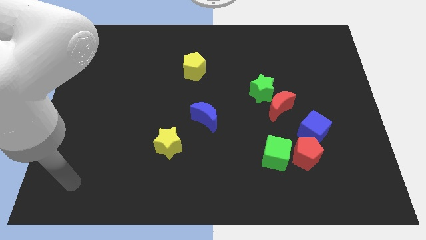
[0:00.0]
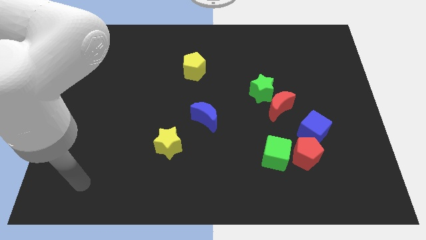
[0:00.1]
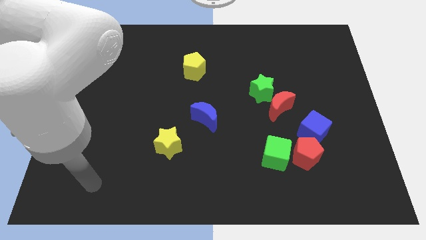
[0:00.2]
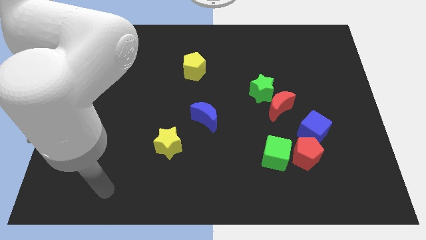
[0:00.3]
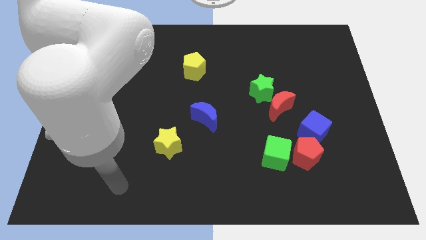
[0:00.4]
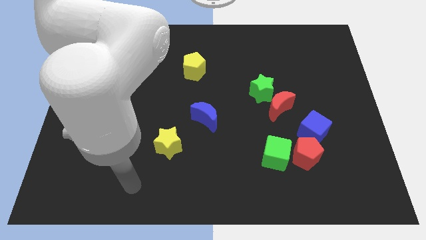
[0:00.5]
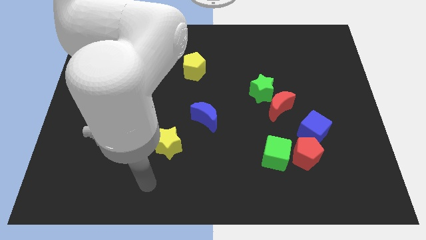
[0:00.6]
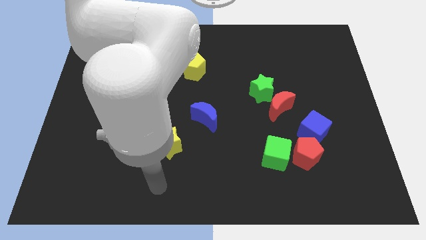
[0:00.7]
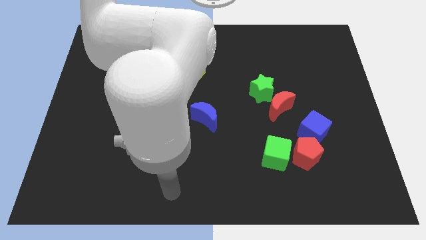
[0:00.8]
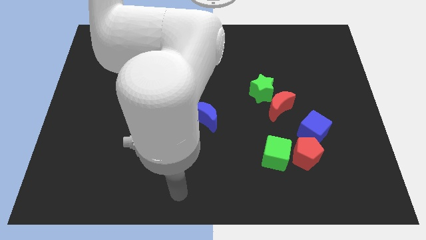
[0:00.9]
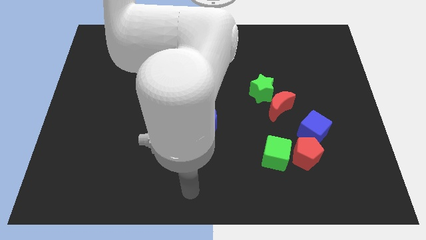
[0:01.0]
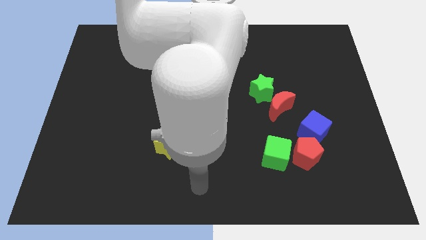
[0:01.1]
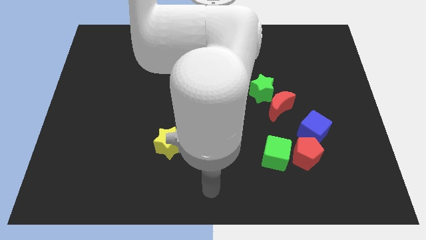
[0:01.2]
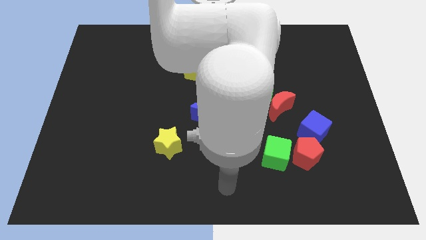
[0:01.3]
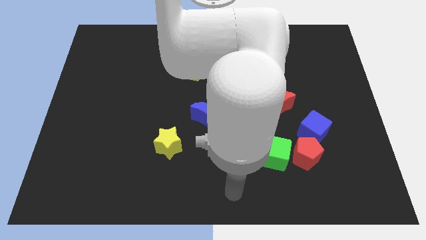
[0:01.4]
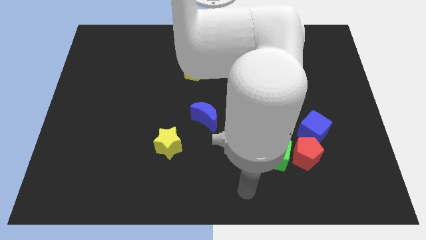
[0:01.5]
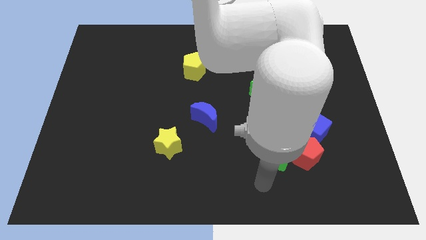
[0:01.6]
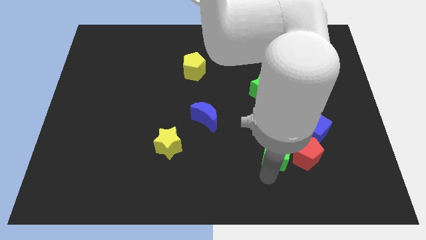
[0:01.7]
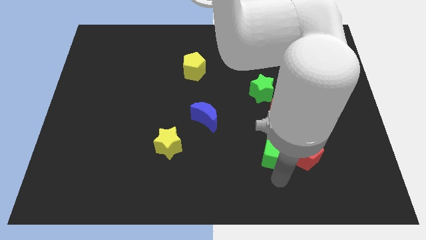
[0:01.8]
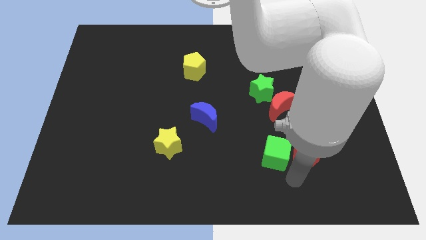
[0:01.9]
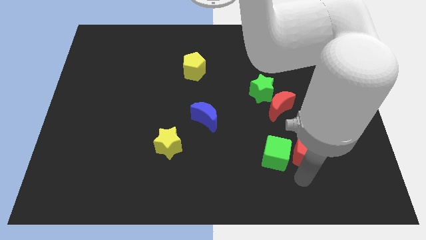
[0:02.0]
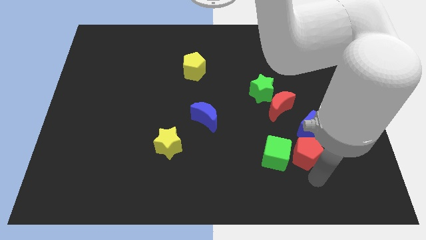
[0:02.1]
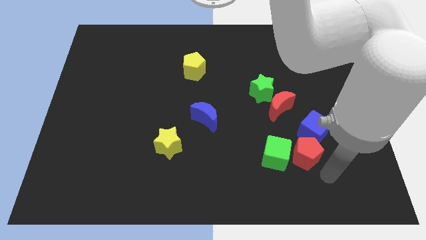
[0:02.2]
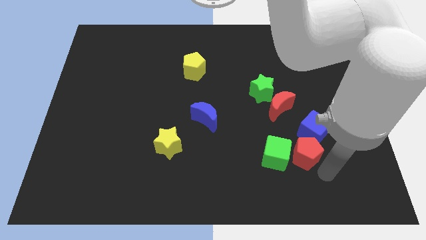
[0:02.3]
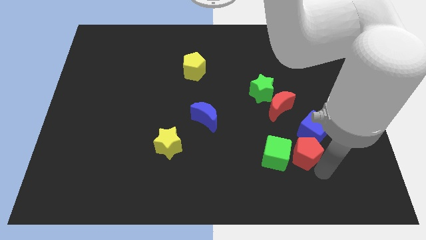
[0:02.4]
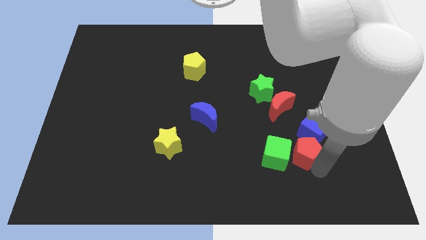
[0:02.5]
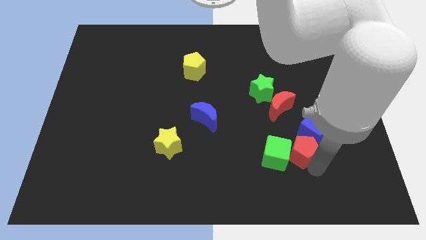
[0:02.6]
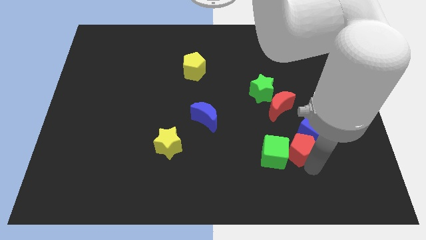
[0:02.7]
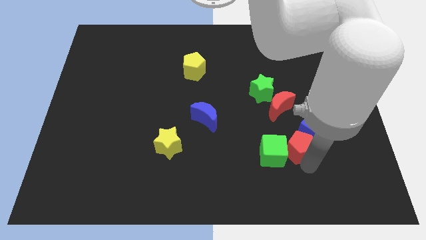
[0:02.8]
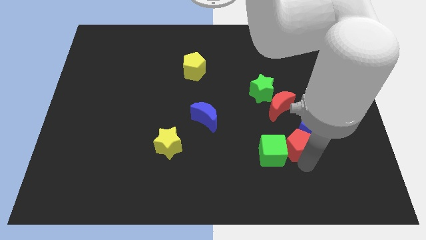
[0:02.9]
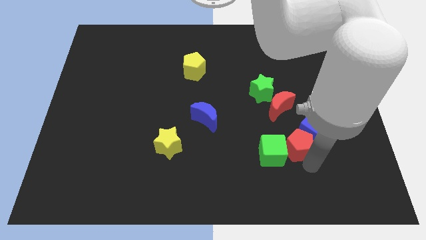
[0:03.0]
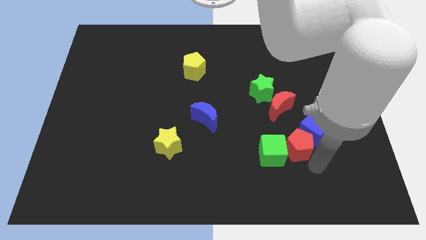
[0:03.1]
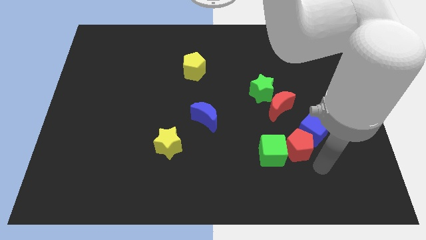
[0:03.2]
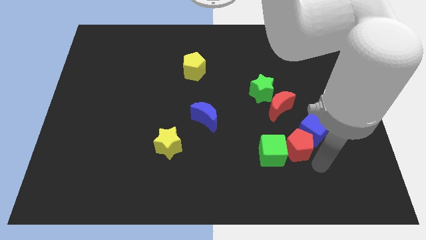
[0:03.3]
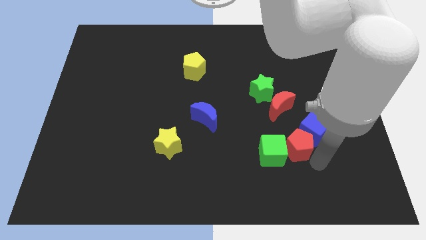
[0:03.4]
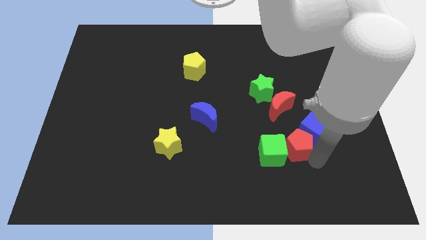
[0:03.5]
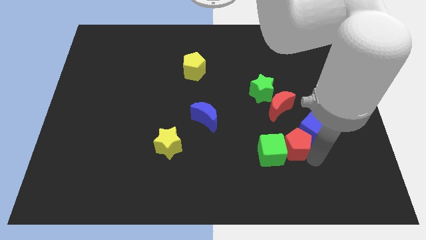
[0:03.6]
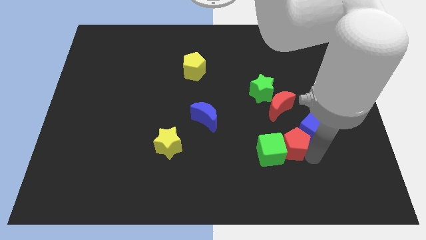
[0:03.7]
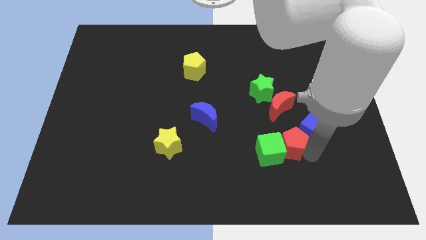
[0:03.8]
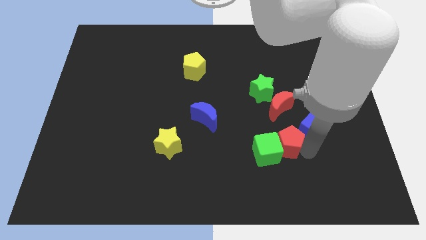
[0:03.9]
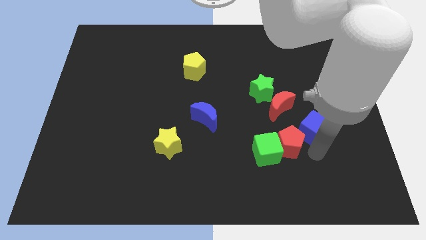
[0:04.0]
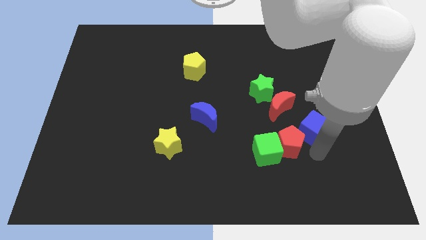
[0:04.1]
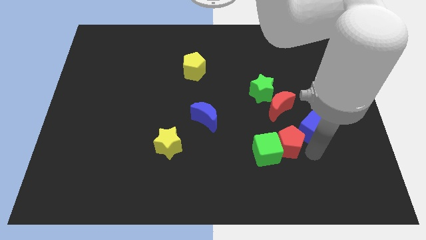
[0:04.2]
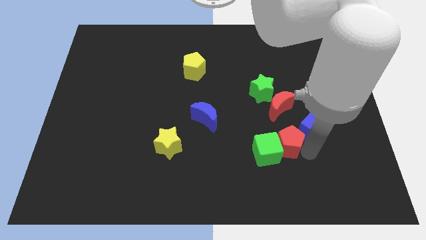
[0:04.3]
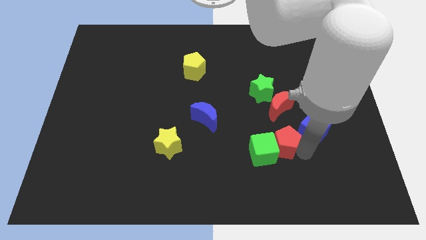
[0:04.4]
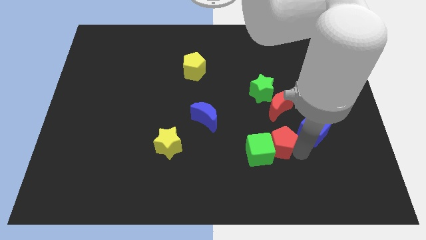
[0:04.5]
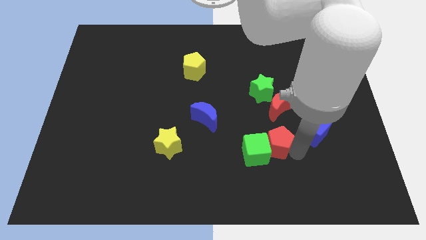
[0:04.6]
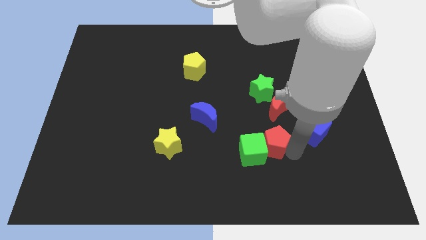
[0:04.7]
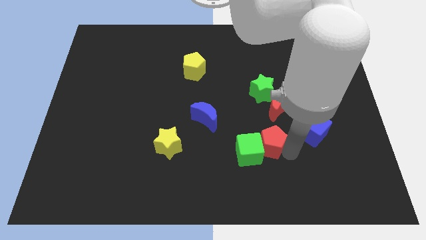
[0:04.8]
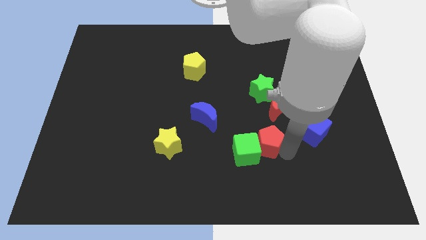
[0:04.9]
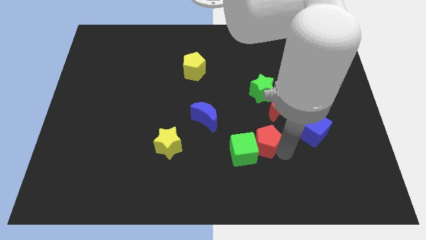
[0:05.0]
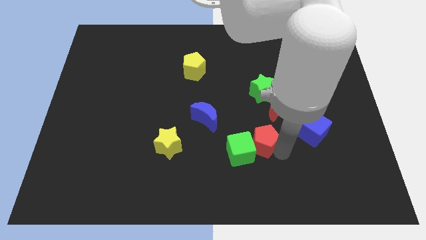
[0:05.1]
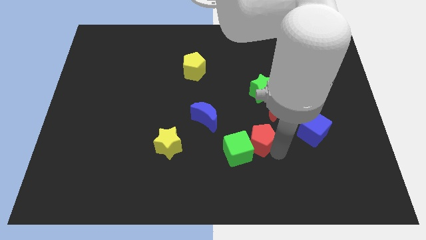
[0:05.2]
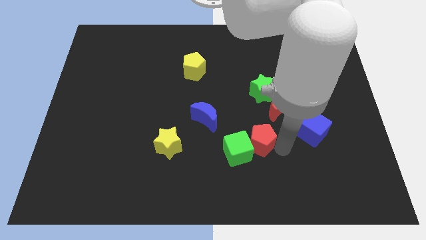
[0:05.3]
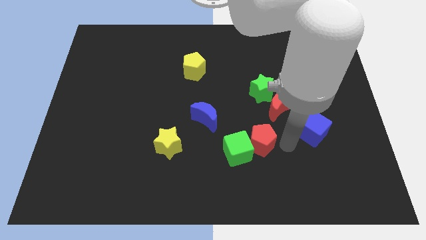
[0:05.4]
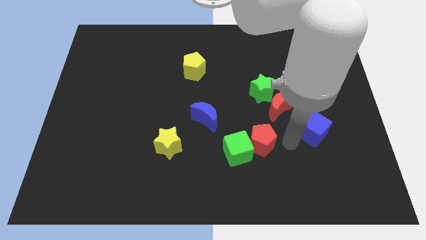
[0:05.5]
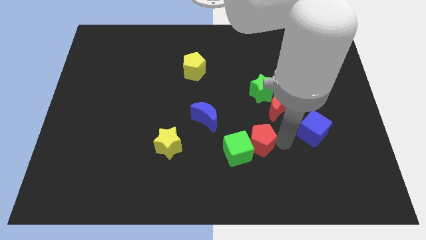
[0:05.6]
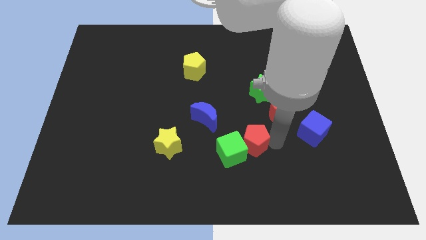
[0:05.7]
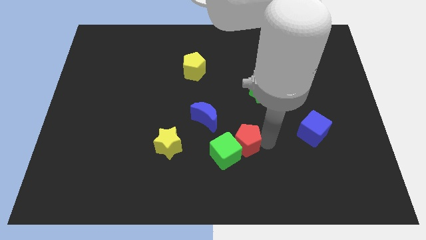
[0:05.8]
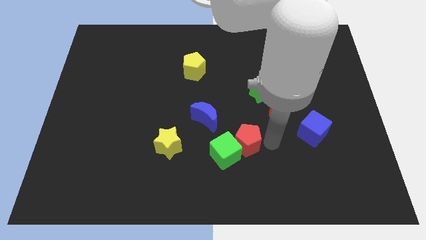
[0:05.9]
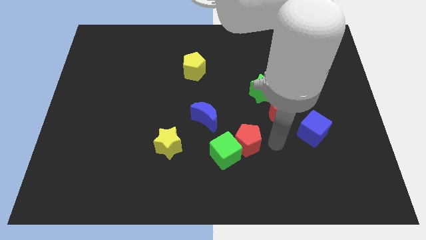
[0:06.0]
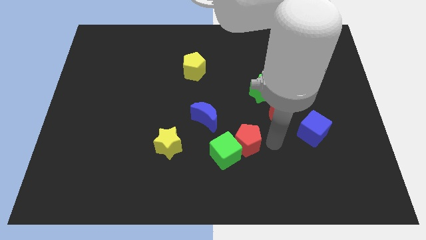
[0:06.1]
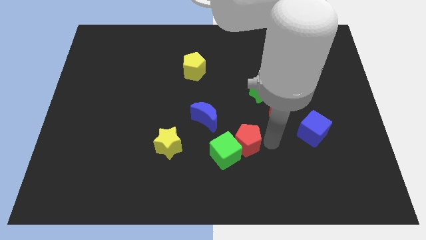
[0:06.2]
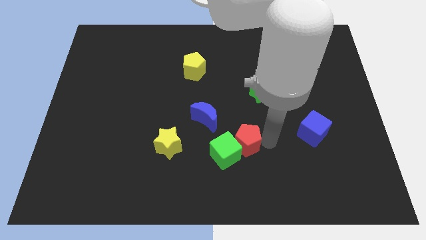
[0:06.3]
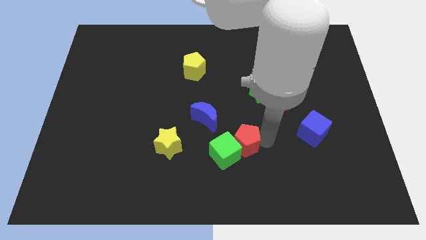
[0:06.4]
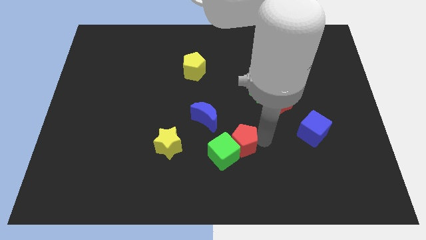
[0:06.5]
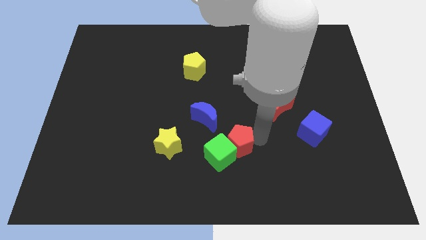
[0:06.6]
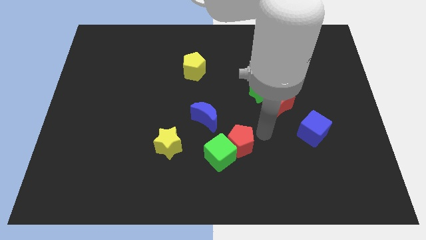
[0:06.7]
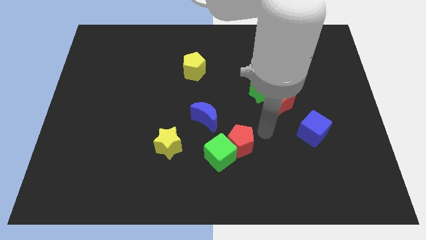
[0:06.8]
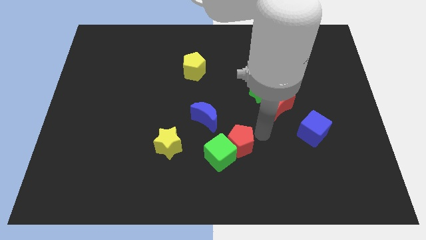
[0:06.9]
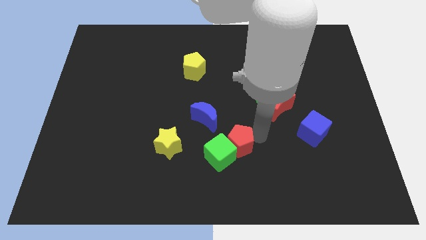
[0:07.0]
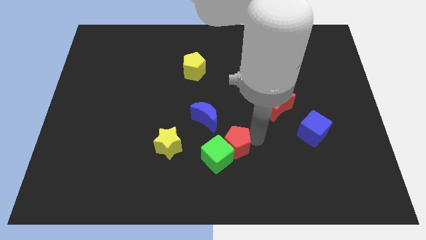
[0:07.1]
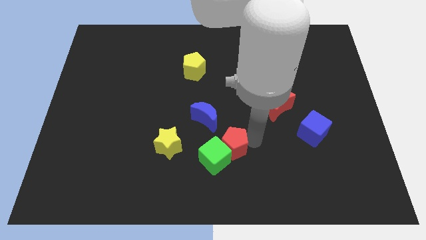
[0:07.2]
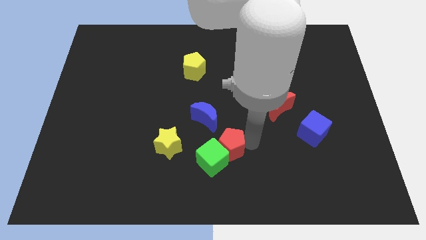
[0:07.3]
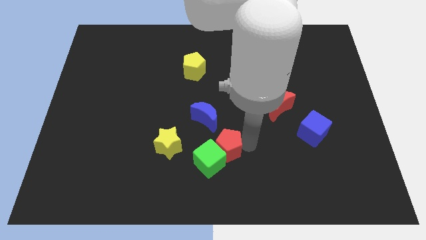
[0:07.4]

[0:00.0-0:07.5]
push the red pentagon to the bottom of the blue moon
